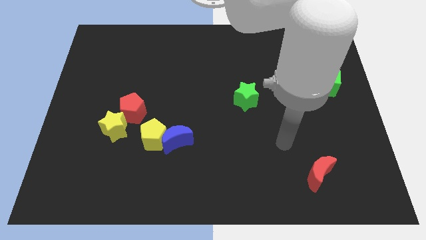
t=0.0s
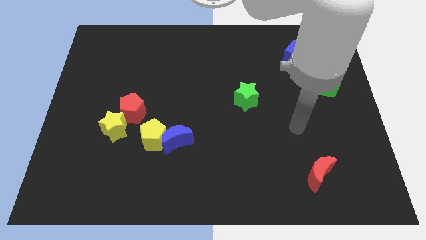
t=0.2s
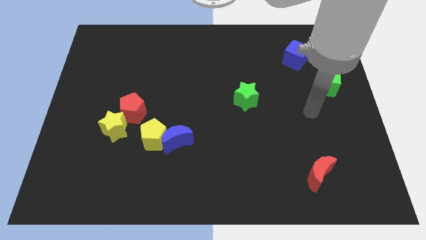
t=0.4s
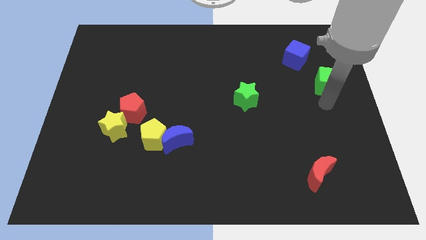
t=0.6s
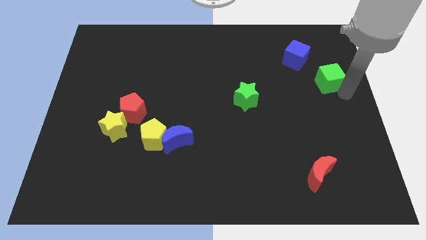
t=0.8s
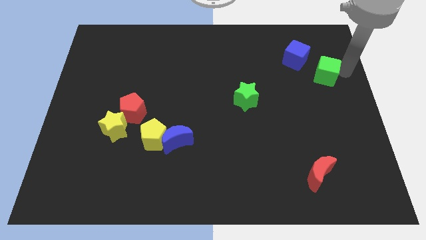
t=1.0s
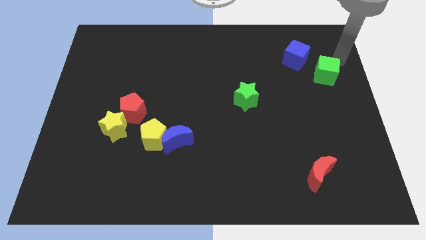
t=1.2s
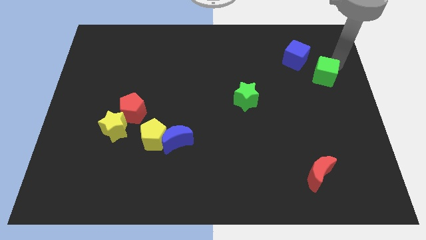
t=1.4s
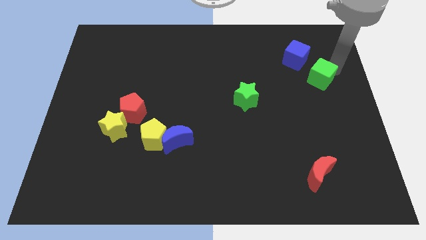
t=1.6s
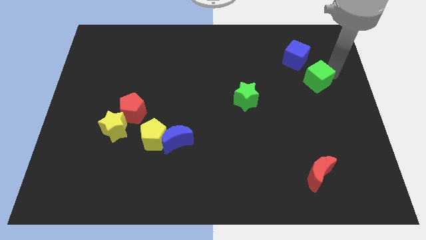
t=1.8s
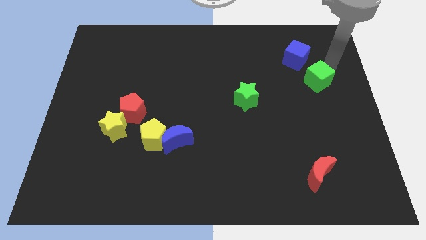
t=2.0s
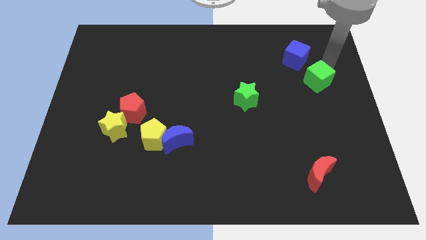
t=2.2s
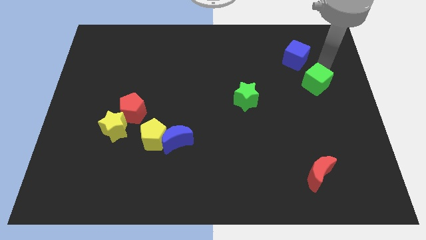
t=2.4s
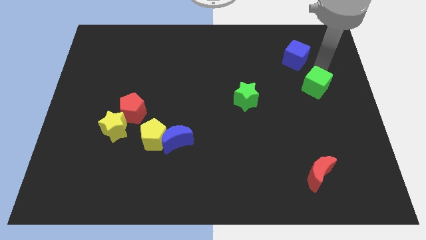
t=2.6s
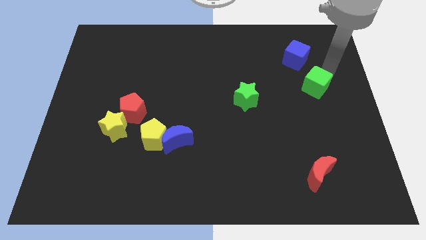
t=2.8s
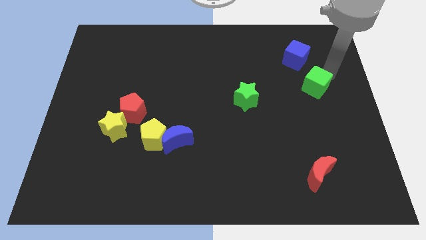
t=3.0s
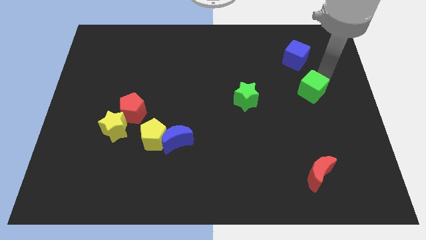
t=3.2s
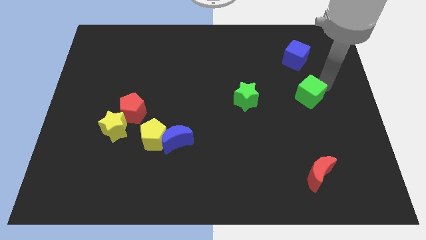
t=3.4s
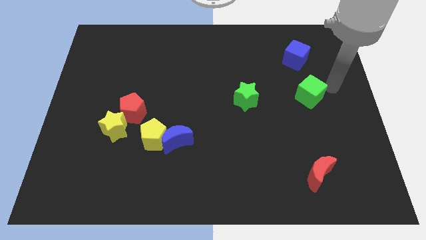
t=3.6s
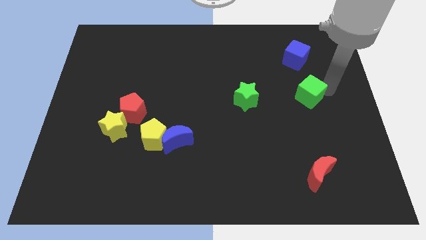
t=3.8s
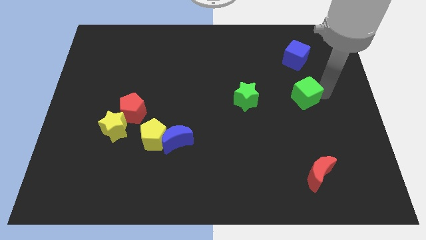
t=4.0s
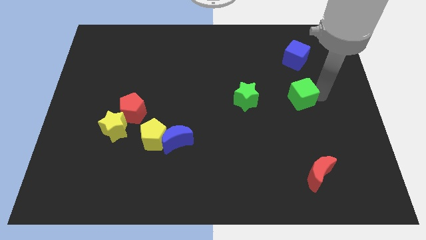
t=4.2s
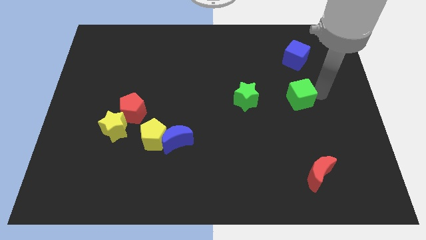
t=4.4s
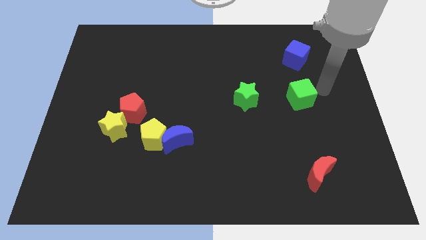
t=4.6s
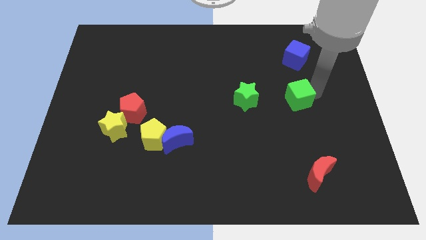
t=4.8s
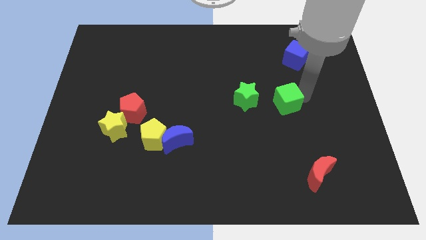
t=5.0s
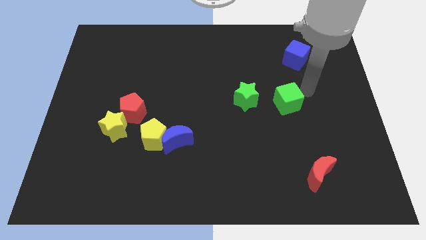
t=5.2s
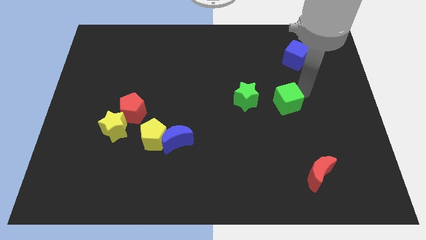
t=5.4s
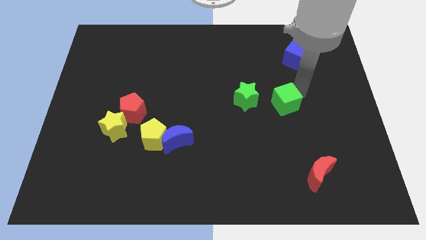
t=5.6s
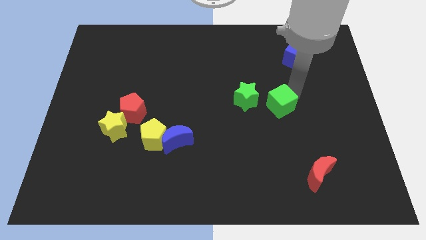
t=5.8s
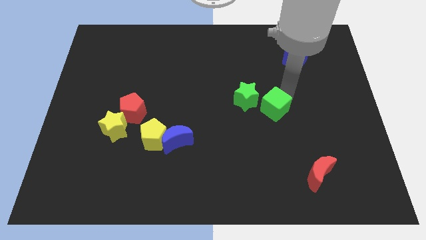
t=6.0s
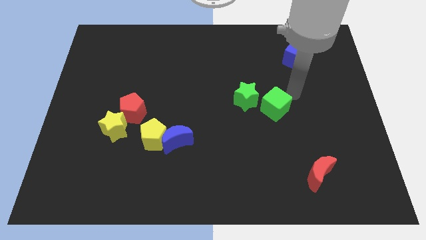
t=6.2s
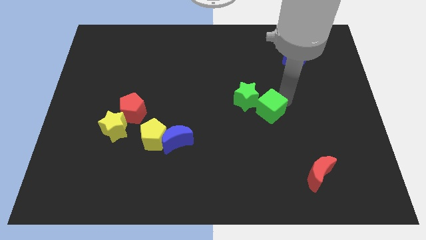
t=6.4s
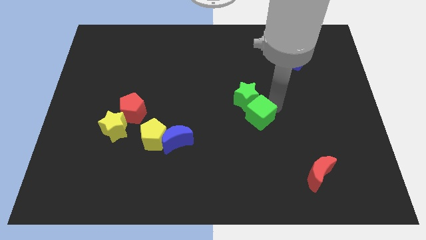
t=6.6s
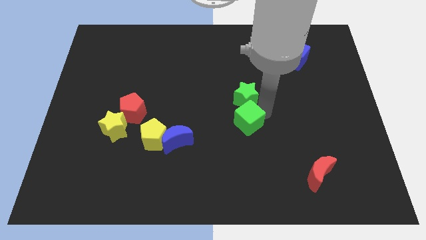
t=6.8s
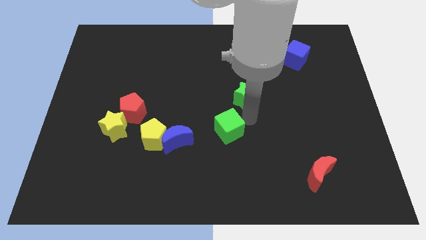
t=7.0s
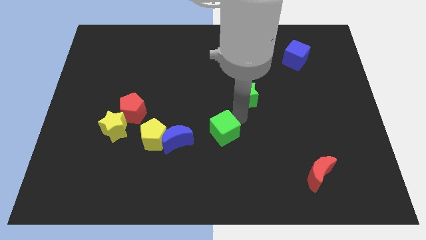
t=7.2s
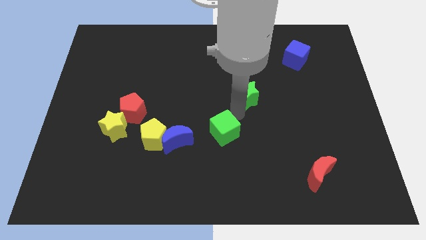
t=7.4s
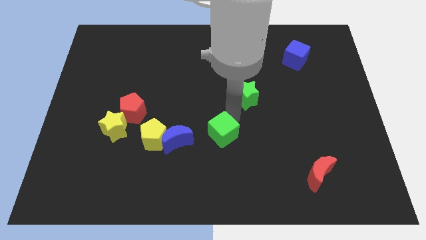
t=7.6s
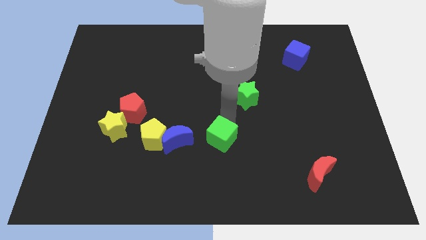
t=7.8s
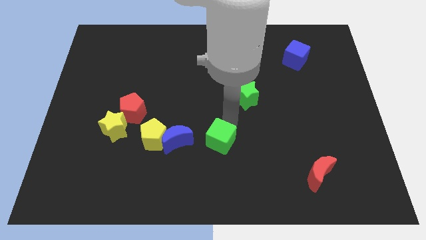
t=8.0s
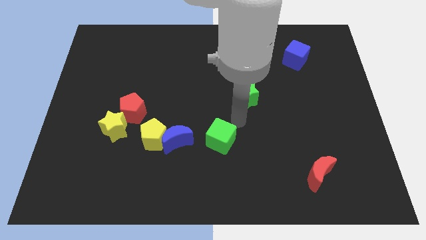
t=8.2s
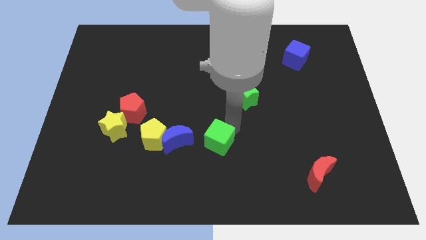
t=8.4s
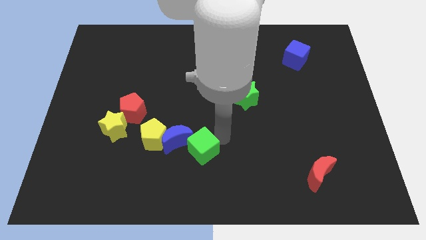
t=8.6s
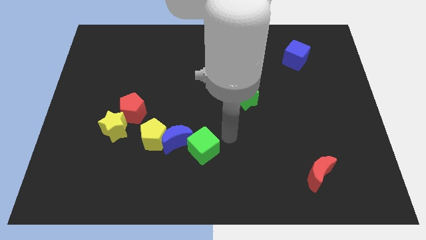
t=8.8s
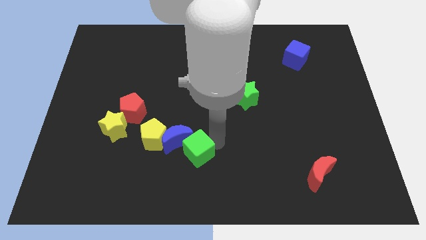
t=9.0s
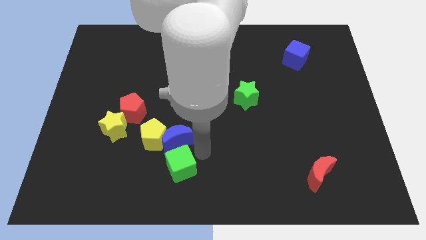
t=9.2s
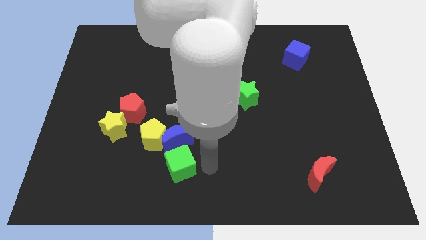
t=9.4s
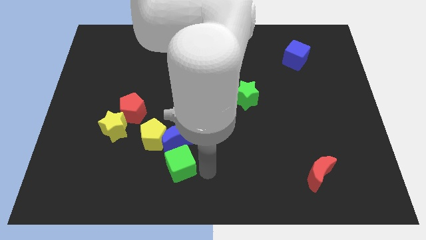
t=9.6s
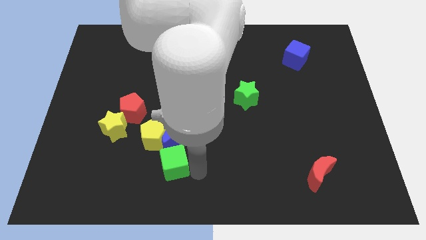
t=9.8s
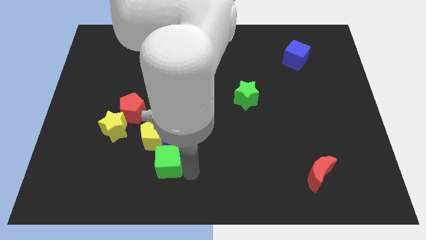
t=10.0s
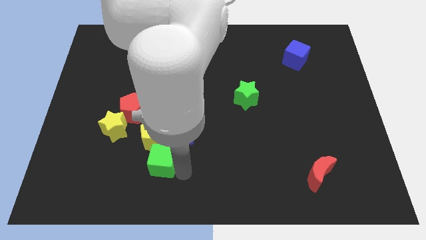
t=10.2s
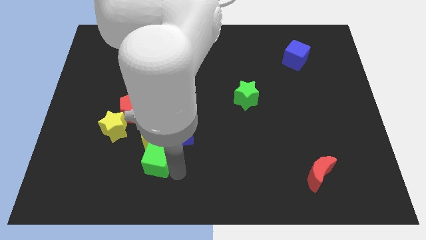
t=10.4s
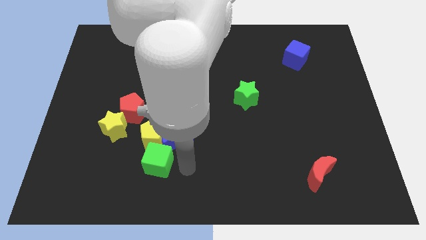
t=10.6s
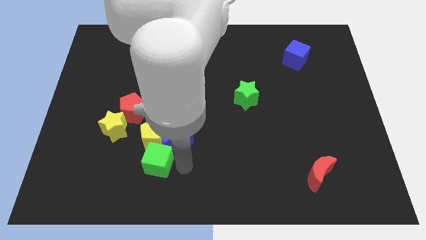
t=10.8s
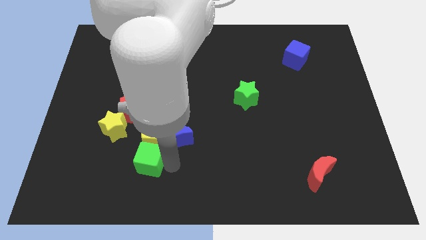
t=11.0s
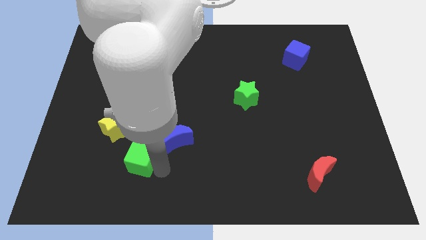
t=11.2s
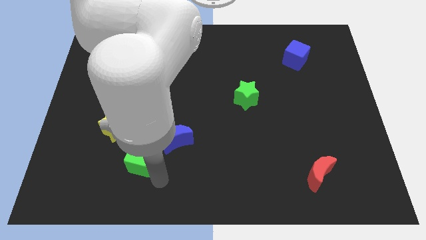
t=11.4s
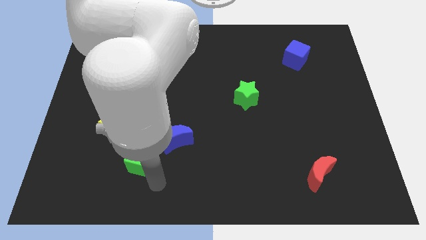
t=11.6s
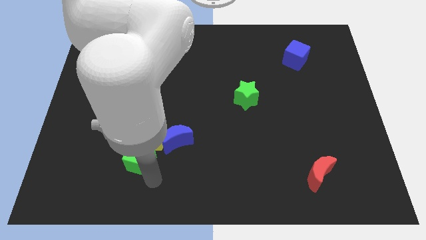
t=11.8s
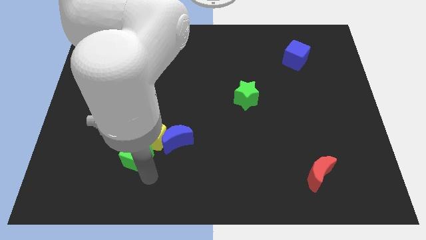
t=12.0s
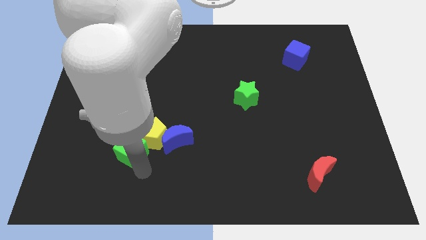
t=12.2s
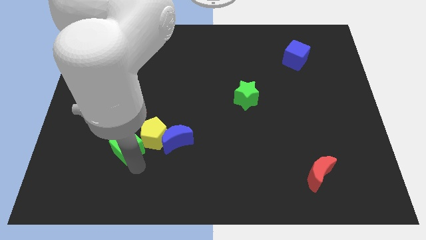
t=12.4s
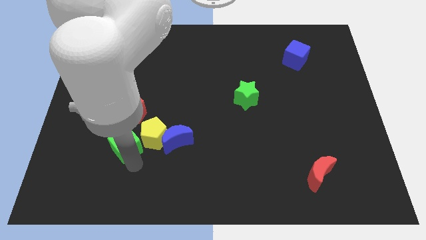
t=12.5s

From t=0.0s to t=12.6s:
move the green cube towards the yellow star

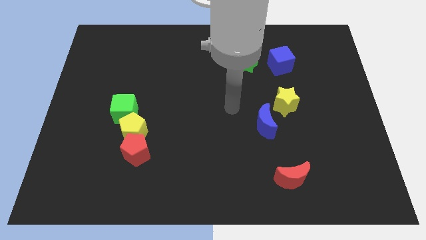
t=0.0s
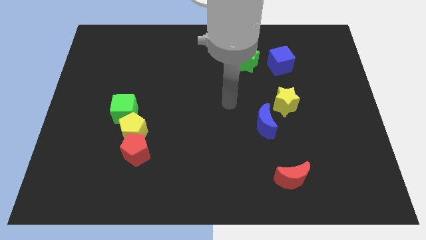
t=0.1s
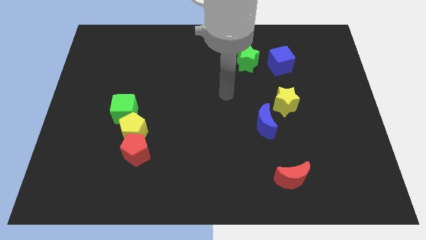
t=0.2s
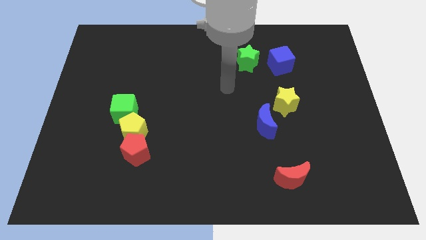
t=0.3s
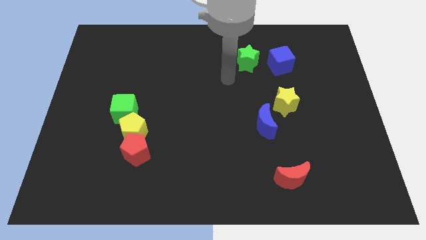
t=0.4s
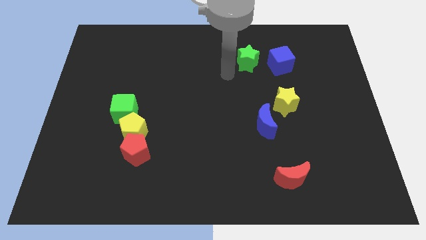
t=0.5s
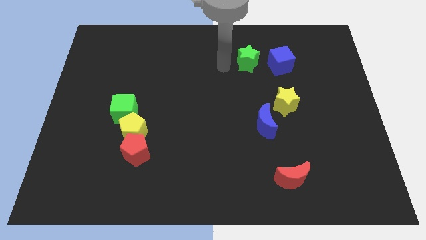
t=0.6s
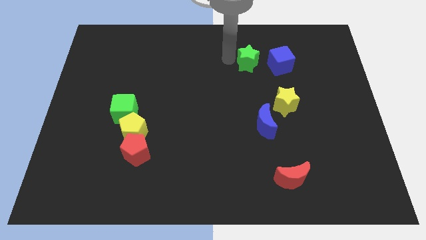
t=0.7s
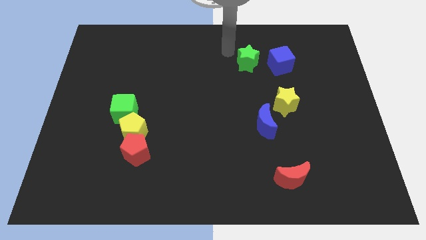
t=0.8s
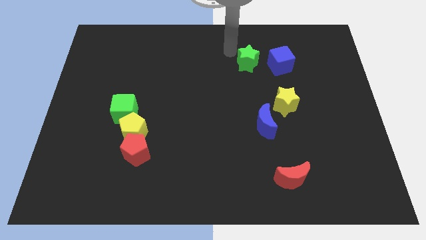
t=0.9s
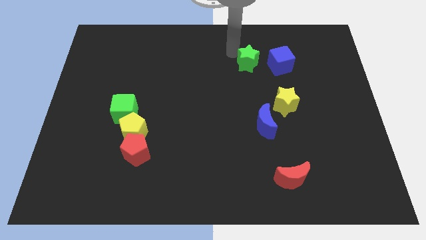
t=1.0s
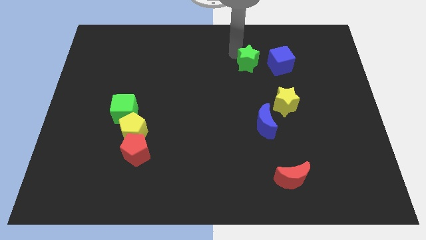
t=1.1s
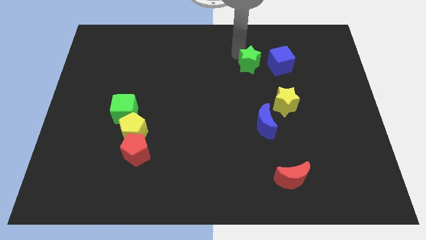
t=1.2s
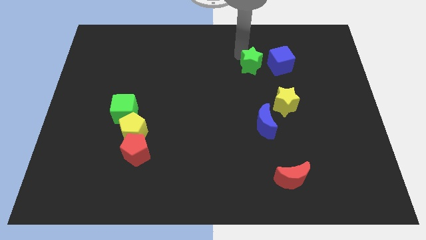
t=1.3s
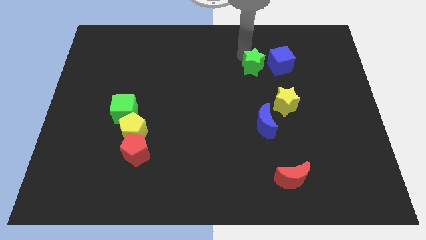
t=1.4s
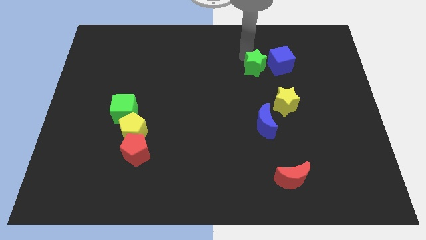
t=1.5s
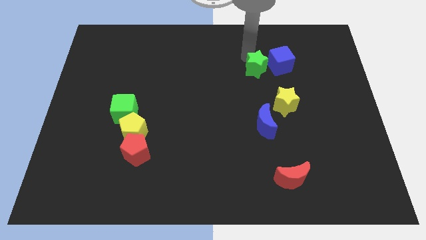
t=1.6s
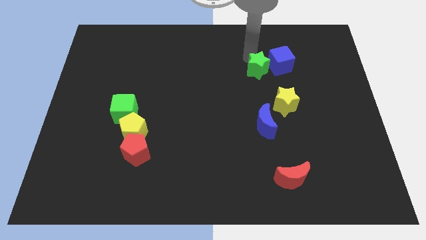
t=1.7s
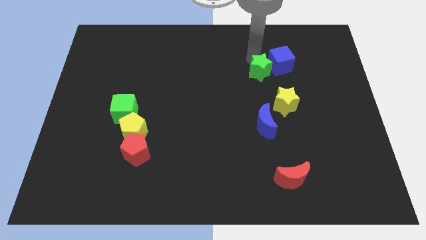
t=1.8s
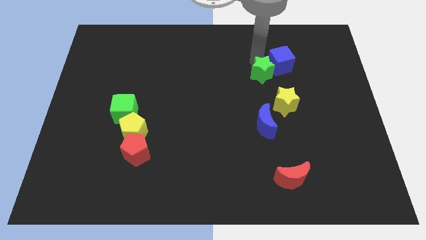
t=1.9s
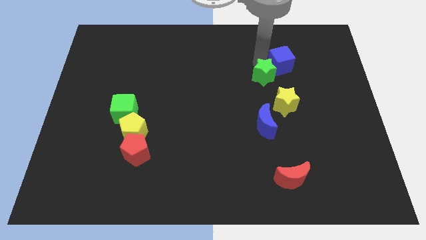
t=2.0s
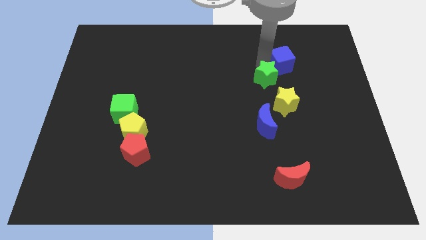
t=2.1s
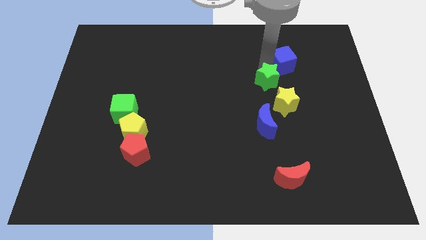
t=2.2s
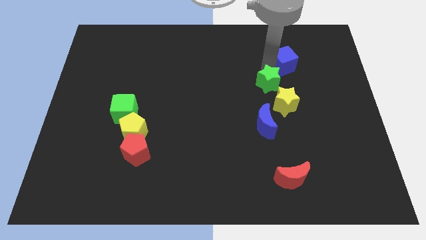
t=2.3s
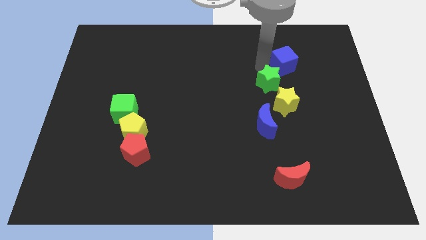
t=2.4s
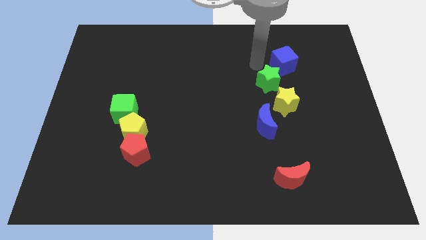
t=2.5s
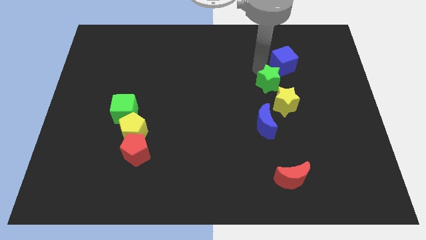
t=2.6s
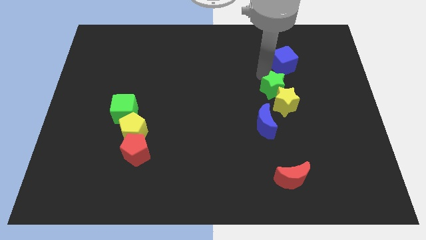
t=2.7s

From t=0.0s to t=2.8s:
move the green star close to the yellow star
